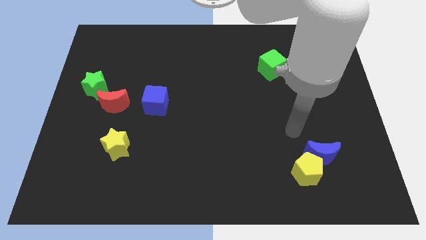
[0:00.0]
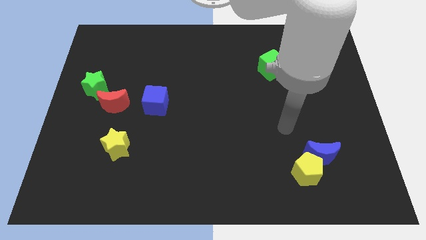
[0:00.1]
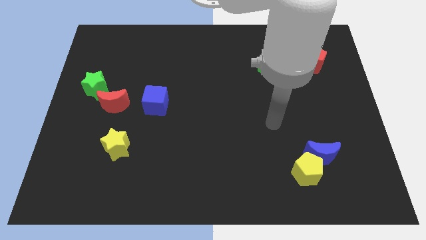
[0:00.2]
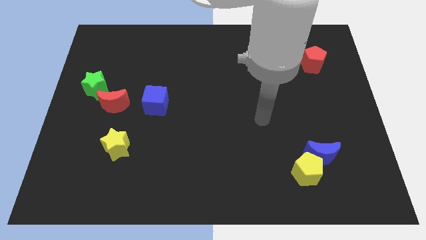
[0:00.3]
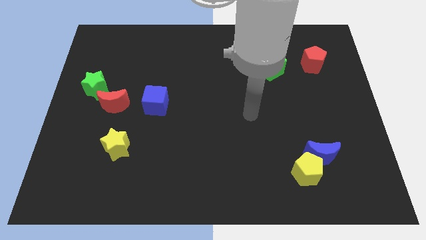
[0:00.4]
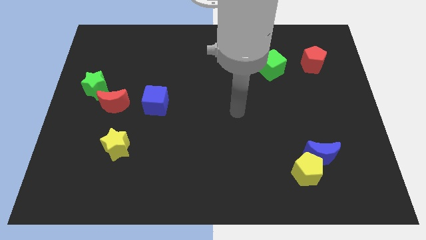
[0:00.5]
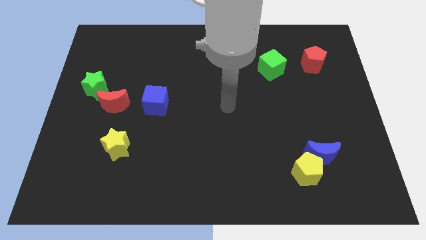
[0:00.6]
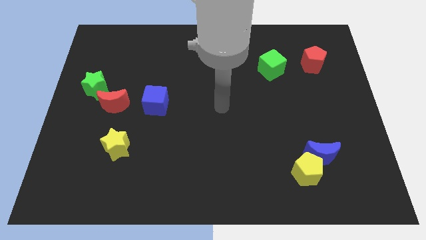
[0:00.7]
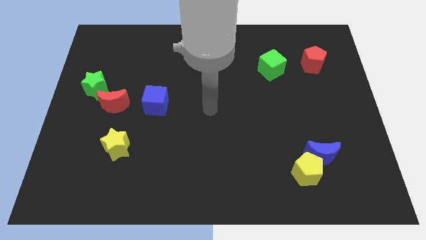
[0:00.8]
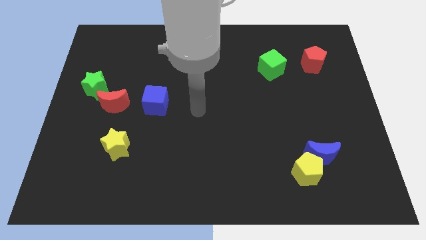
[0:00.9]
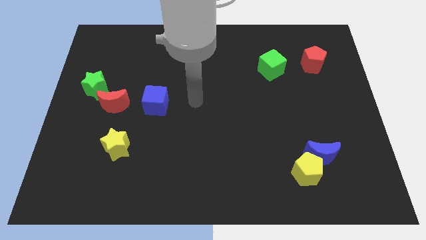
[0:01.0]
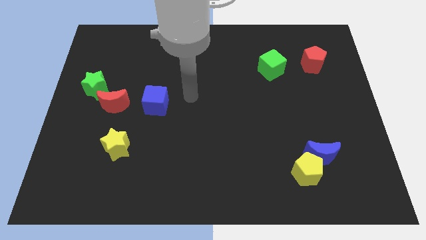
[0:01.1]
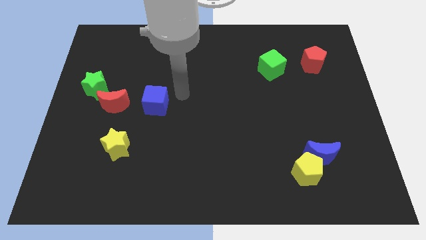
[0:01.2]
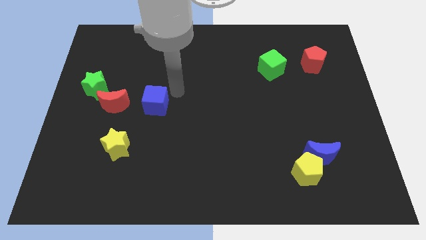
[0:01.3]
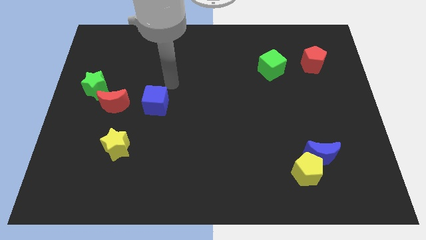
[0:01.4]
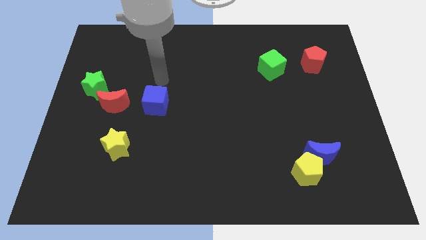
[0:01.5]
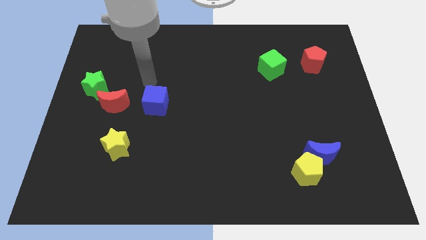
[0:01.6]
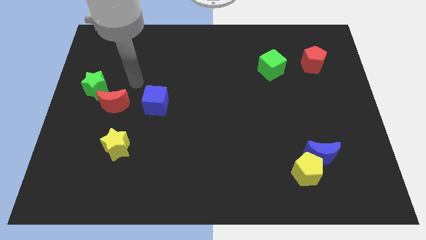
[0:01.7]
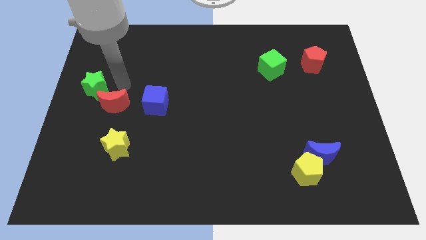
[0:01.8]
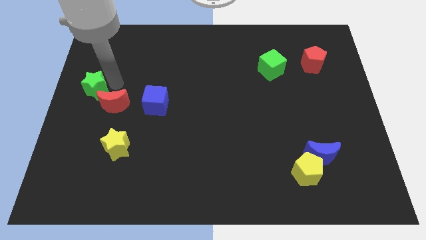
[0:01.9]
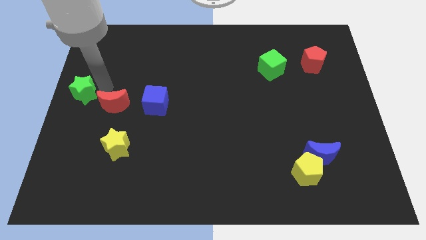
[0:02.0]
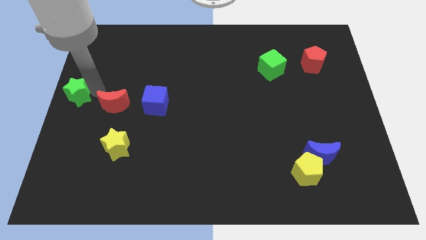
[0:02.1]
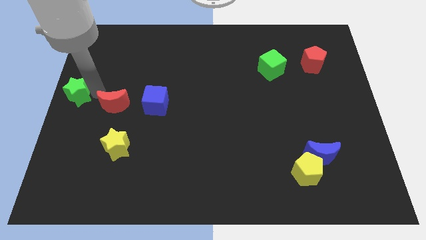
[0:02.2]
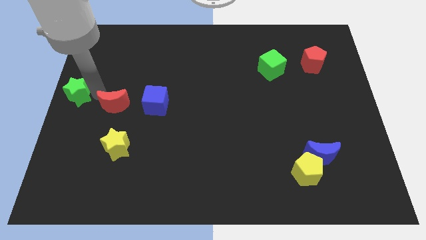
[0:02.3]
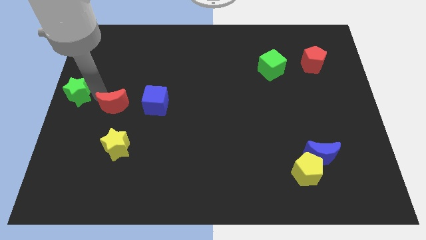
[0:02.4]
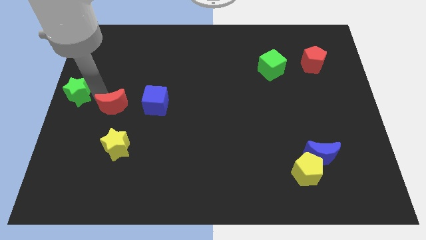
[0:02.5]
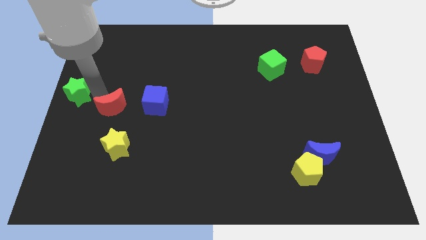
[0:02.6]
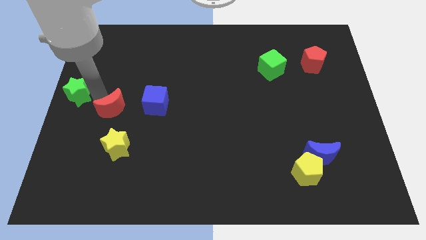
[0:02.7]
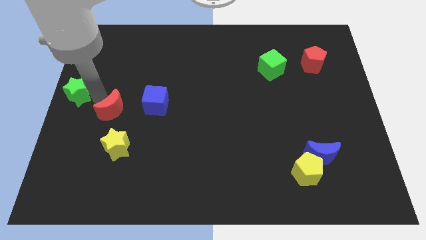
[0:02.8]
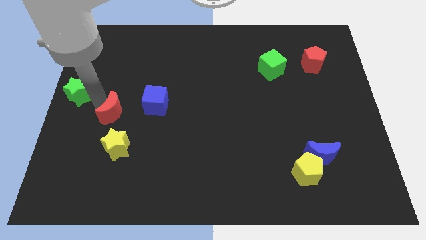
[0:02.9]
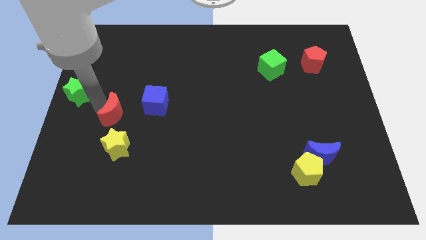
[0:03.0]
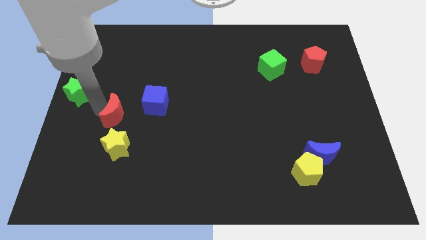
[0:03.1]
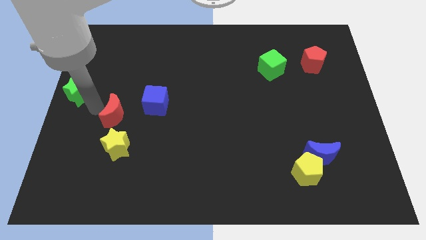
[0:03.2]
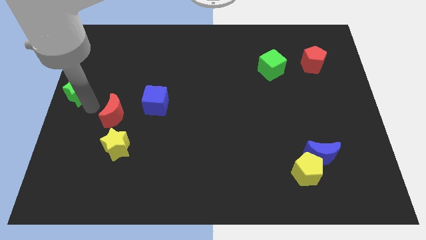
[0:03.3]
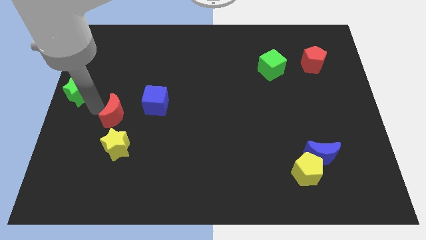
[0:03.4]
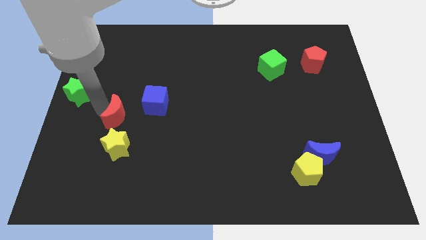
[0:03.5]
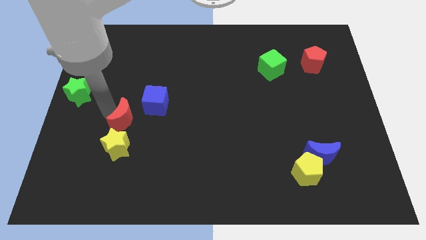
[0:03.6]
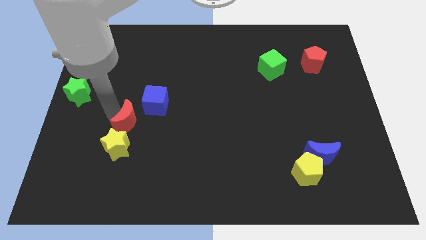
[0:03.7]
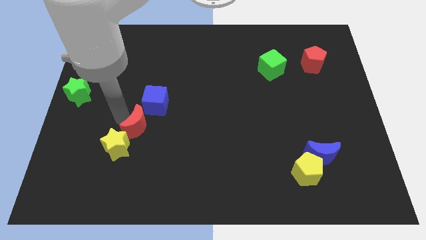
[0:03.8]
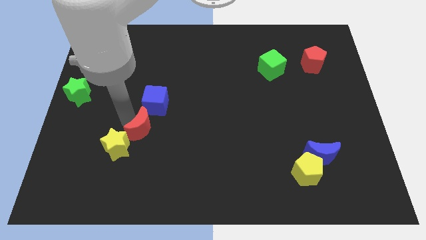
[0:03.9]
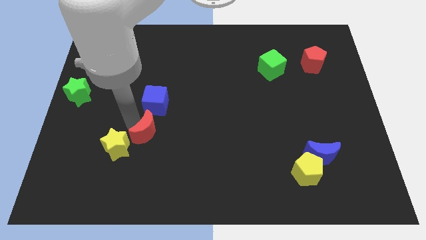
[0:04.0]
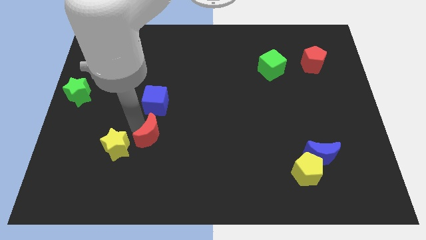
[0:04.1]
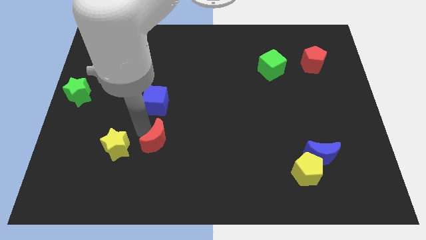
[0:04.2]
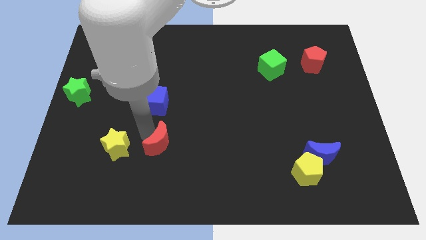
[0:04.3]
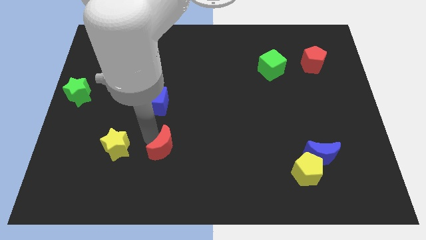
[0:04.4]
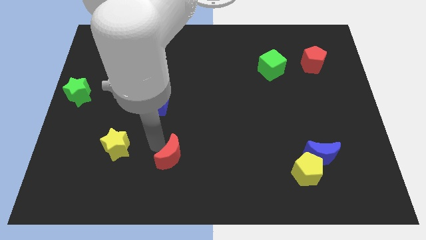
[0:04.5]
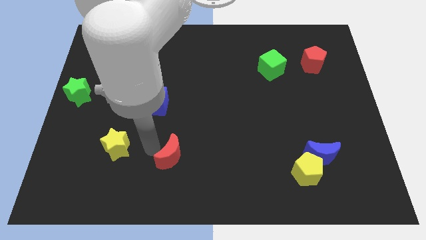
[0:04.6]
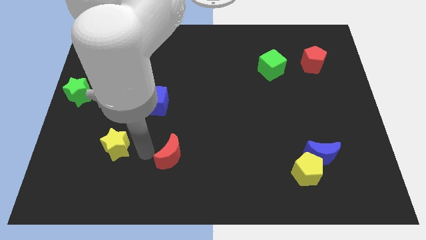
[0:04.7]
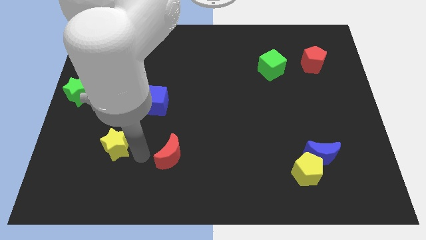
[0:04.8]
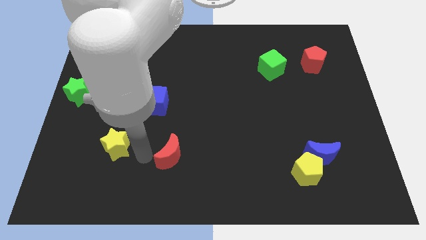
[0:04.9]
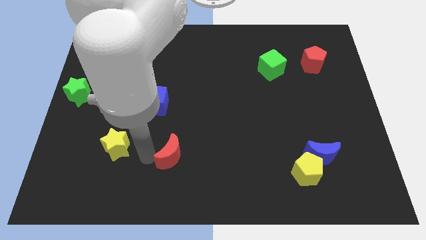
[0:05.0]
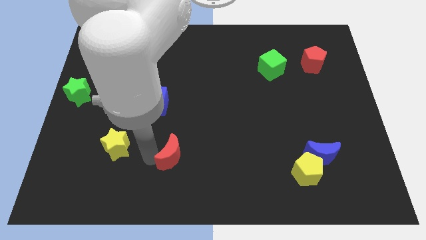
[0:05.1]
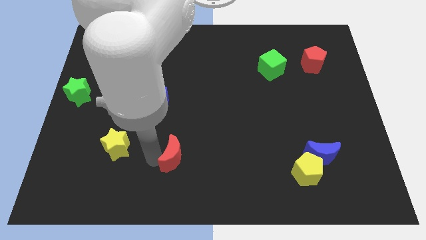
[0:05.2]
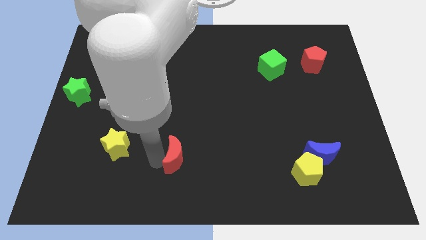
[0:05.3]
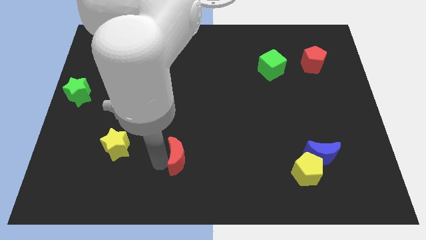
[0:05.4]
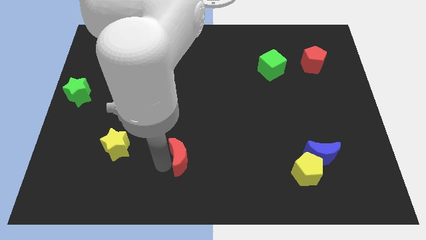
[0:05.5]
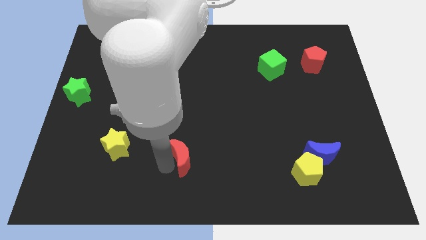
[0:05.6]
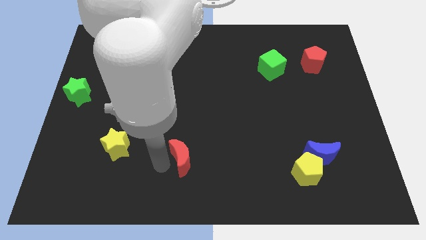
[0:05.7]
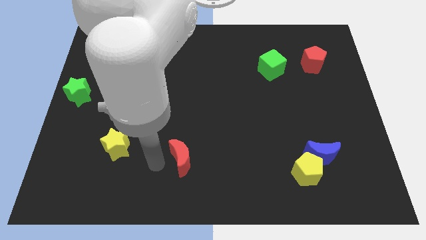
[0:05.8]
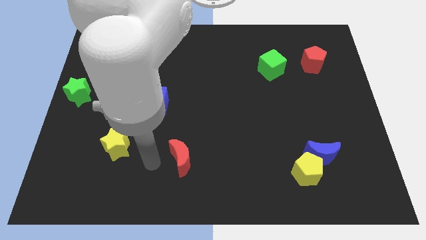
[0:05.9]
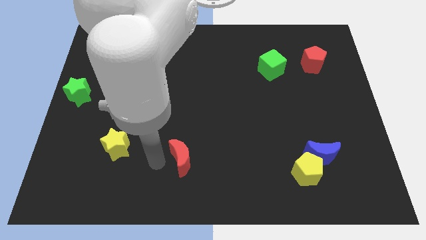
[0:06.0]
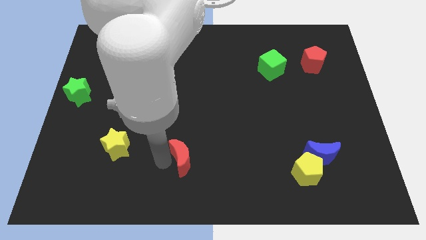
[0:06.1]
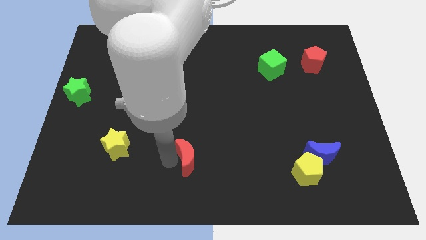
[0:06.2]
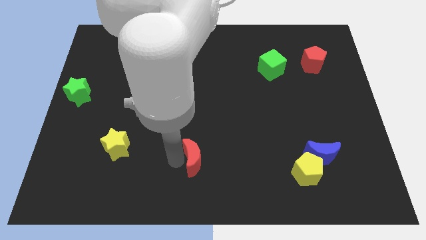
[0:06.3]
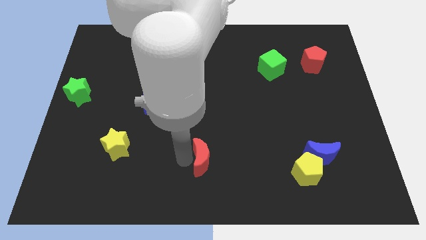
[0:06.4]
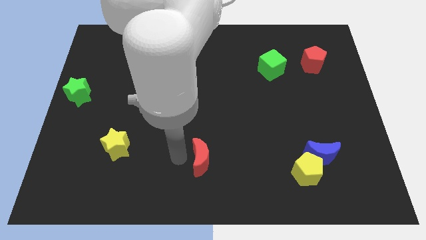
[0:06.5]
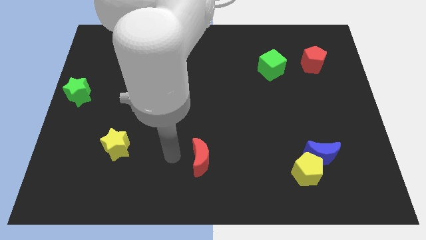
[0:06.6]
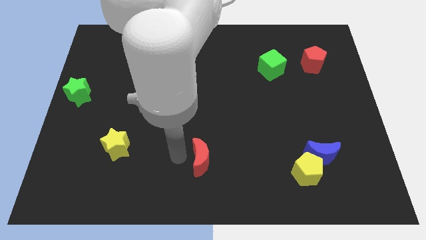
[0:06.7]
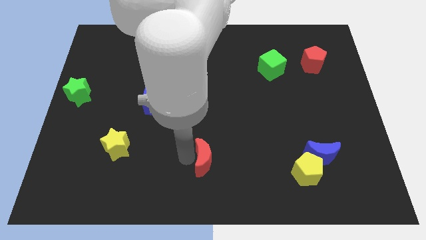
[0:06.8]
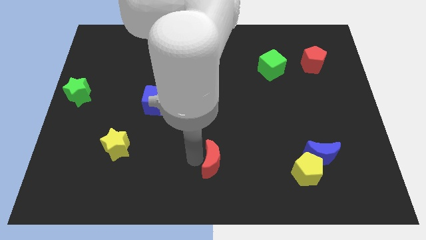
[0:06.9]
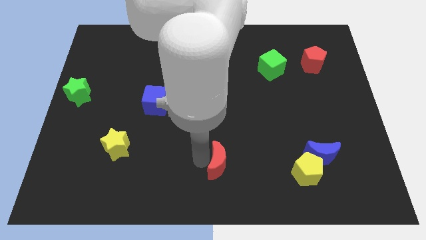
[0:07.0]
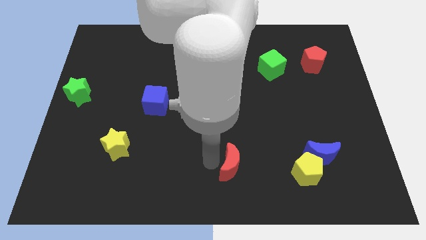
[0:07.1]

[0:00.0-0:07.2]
move the red moon left of the yellow pentagon

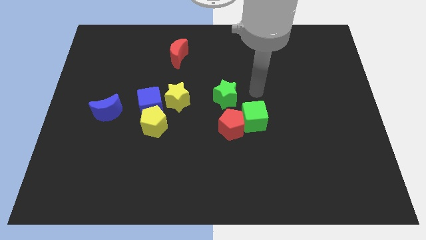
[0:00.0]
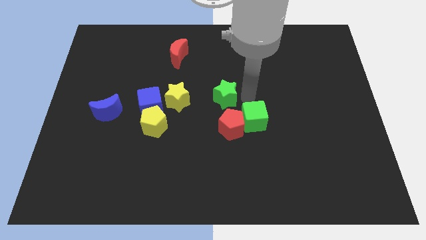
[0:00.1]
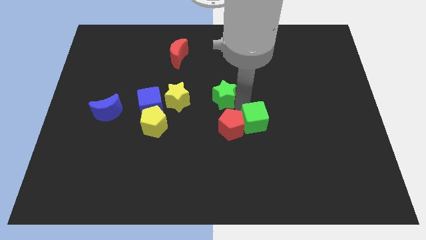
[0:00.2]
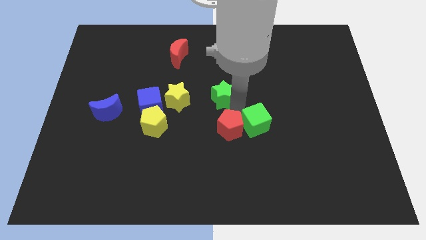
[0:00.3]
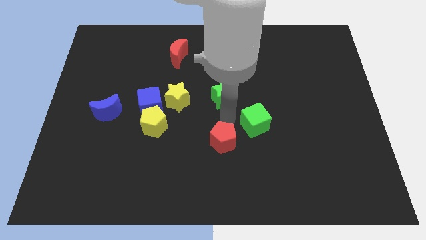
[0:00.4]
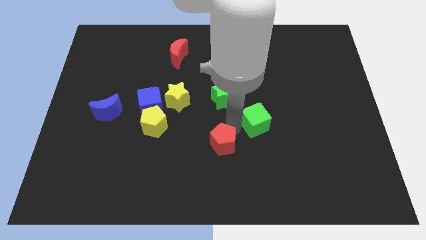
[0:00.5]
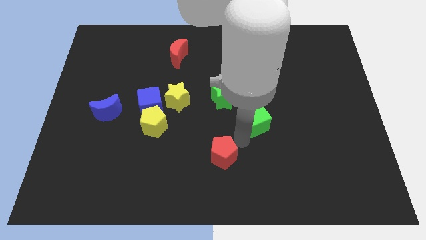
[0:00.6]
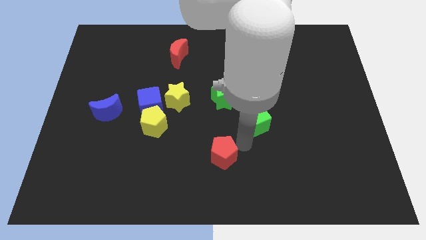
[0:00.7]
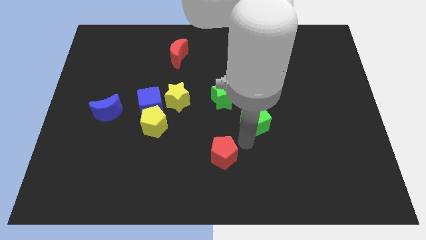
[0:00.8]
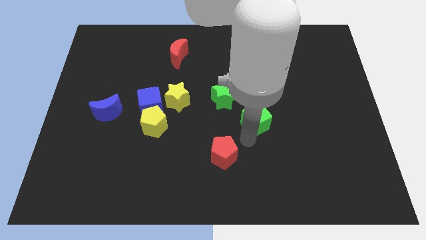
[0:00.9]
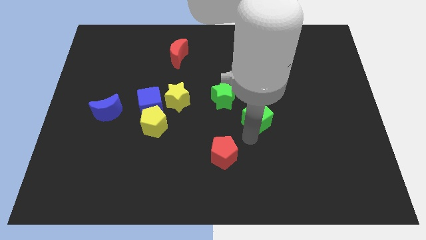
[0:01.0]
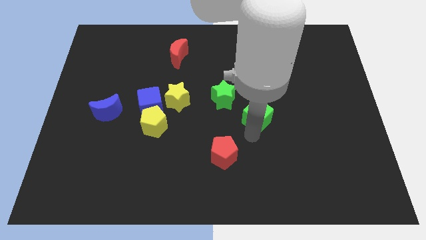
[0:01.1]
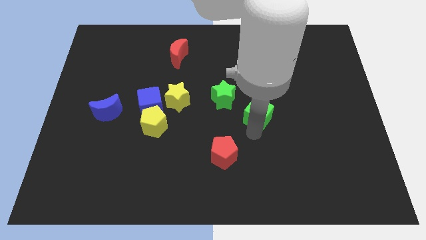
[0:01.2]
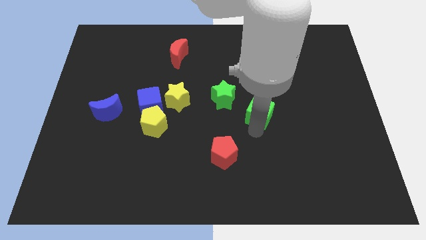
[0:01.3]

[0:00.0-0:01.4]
push the green cube to the right of the green star
